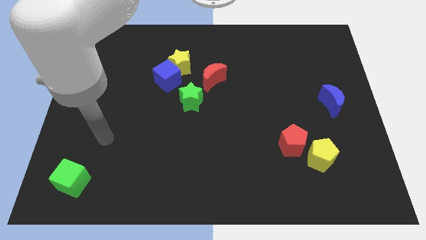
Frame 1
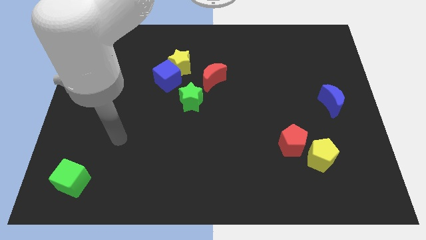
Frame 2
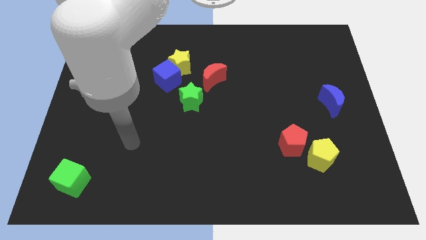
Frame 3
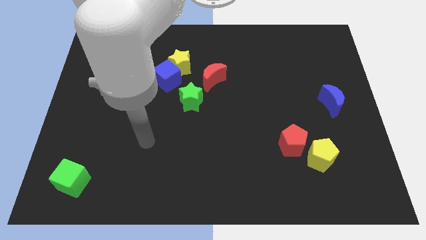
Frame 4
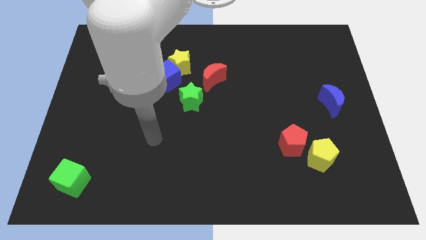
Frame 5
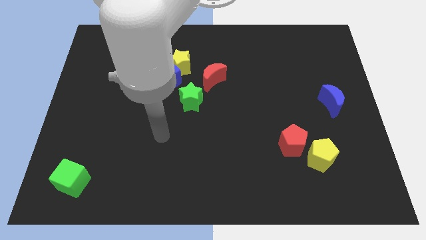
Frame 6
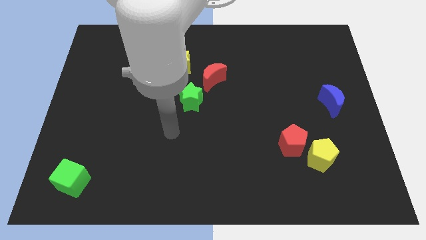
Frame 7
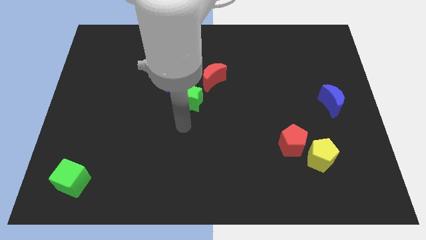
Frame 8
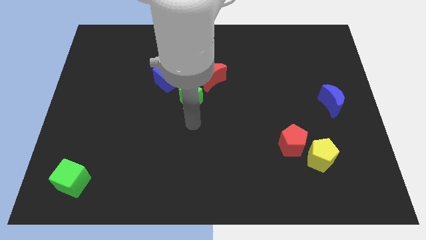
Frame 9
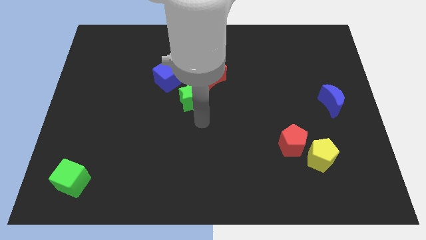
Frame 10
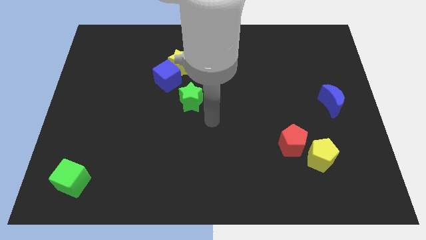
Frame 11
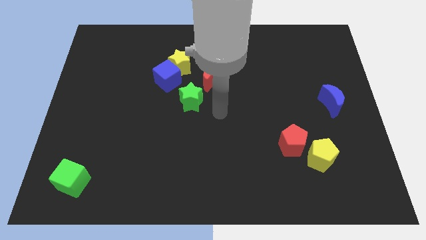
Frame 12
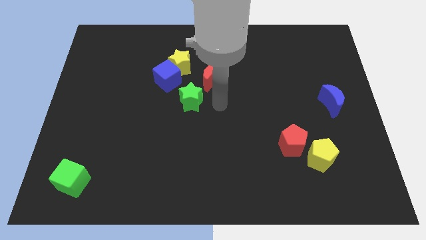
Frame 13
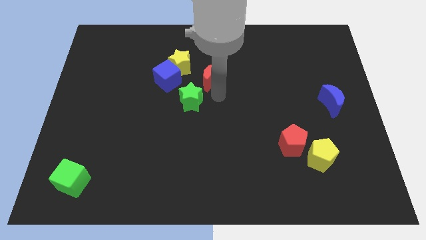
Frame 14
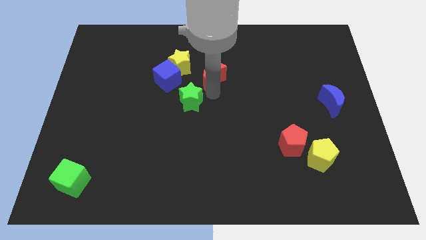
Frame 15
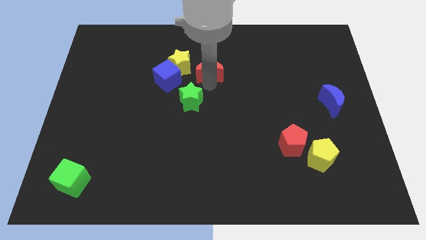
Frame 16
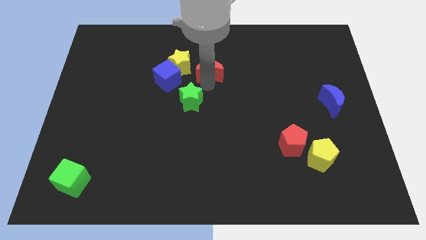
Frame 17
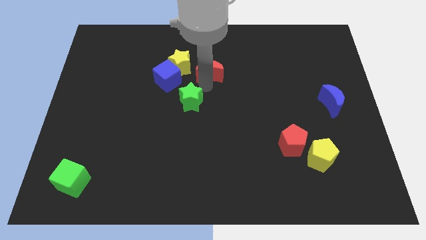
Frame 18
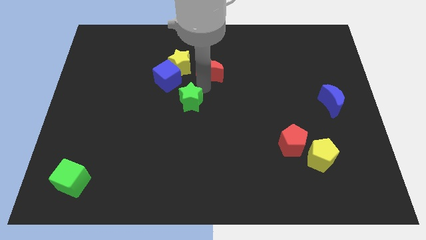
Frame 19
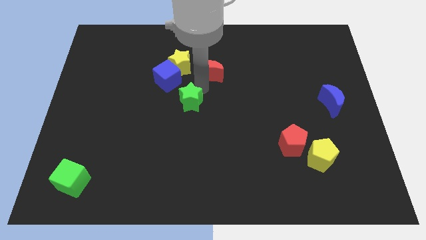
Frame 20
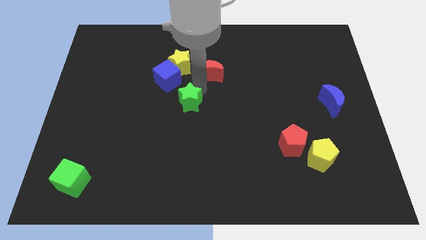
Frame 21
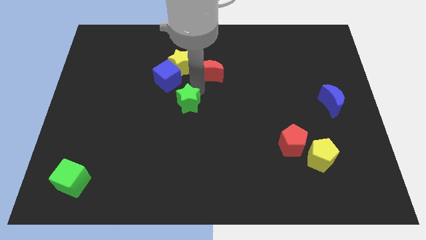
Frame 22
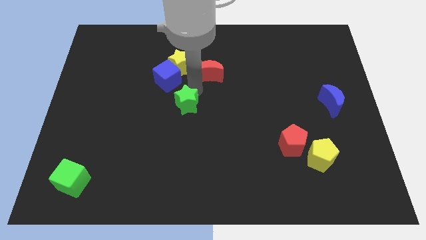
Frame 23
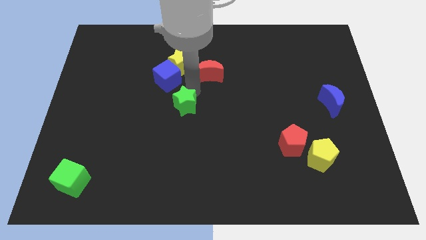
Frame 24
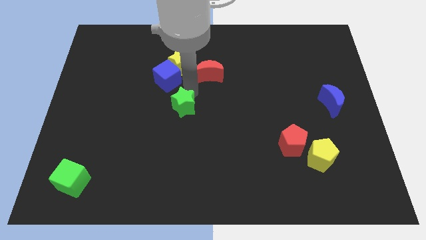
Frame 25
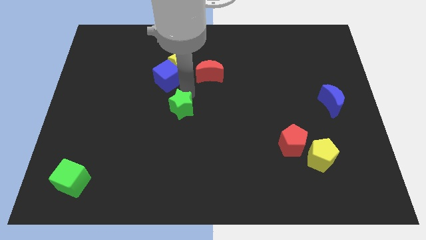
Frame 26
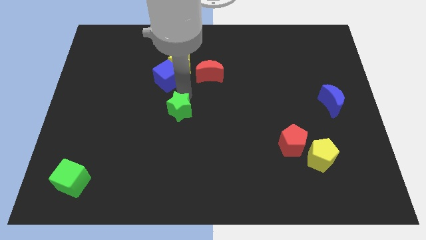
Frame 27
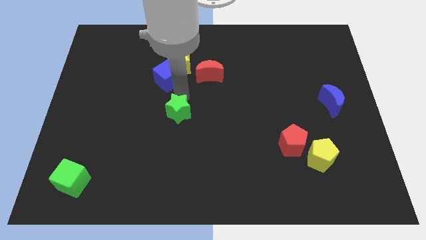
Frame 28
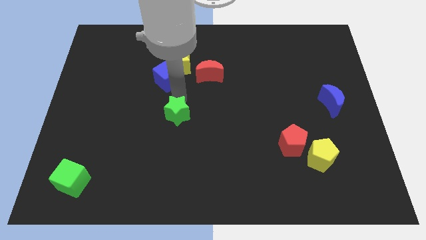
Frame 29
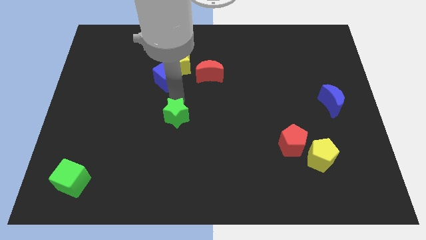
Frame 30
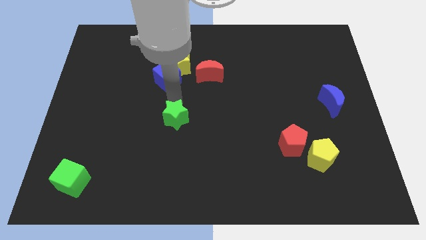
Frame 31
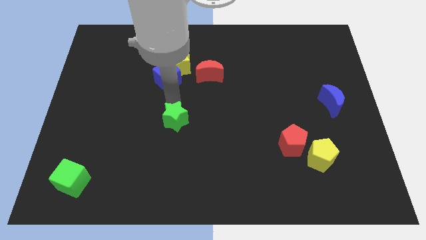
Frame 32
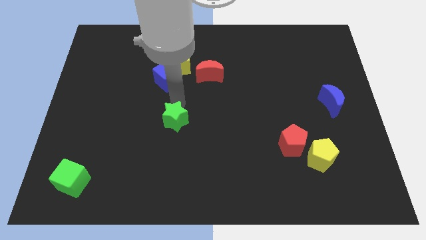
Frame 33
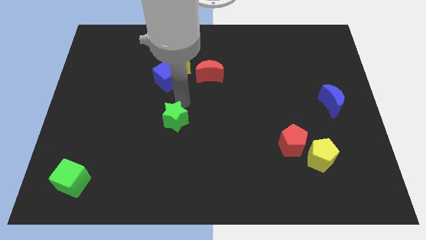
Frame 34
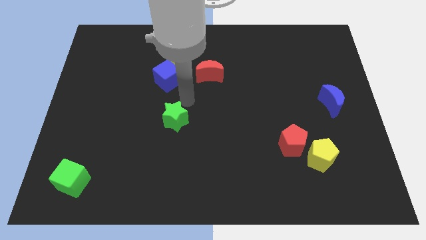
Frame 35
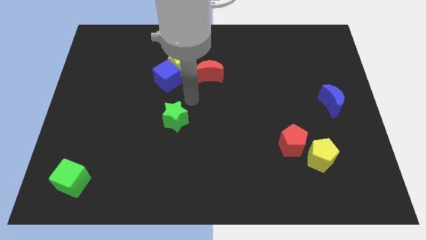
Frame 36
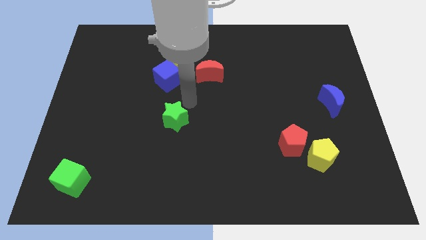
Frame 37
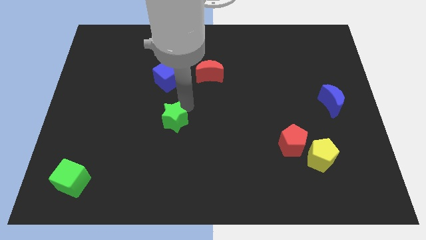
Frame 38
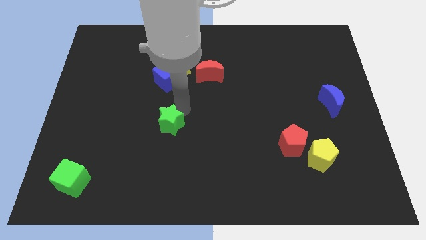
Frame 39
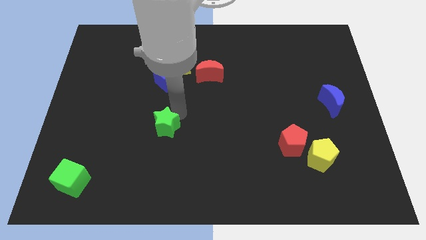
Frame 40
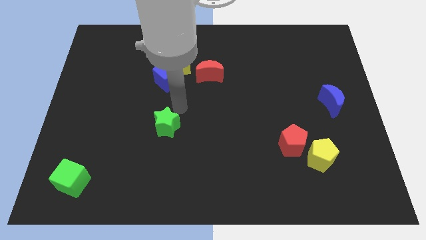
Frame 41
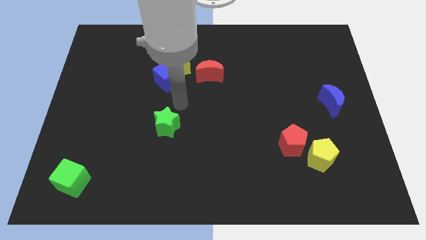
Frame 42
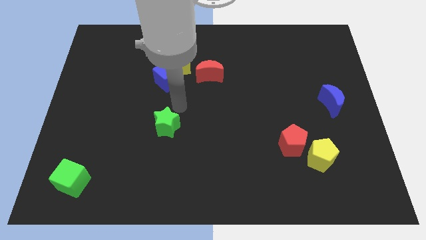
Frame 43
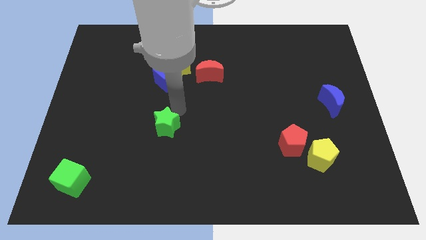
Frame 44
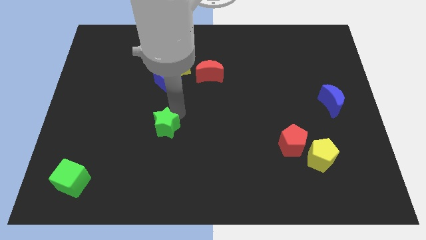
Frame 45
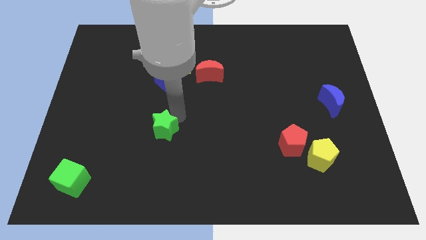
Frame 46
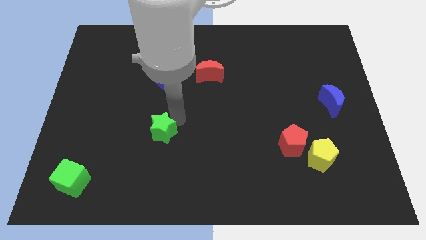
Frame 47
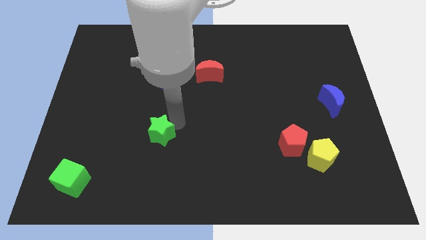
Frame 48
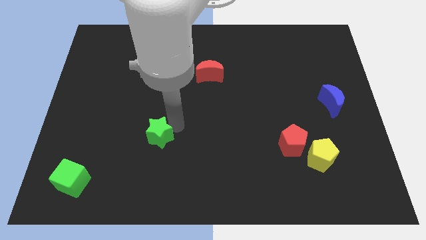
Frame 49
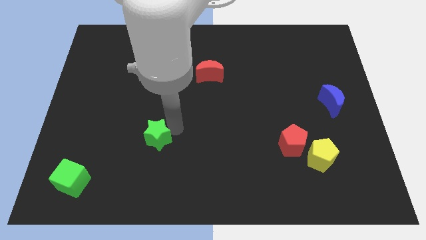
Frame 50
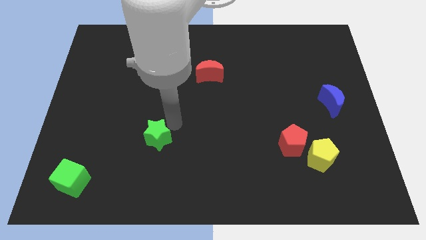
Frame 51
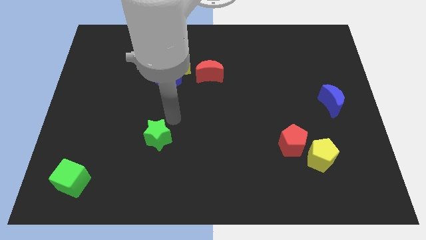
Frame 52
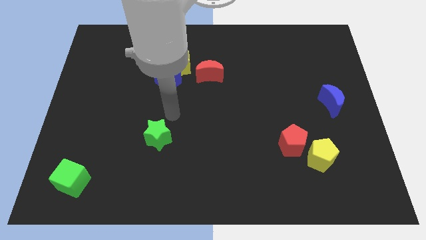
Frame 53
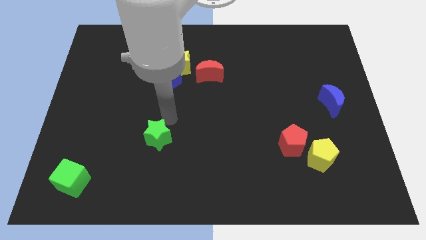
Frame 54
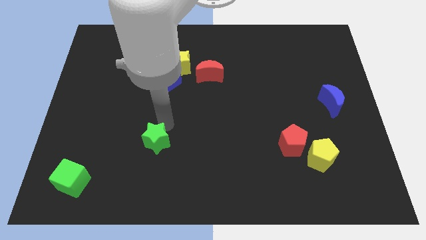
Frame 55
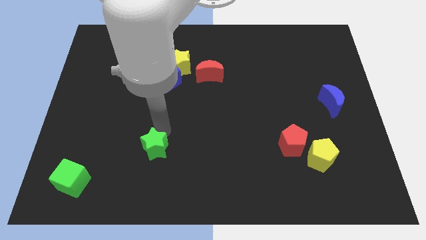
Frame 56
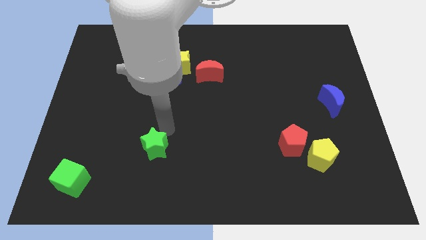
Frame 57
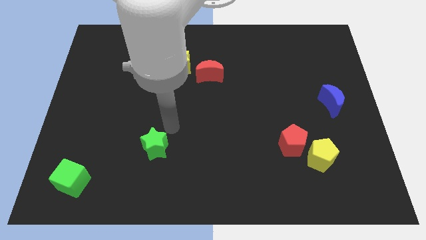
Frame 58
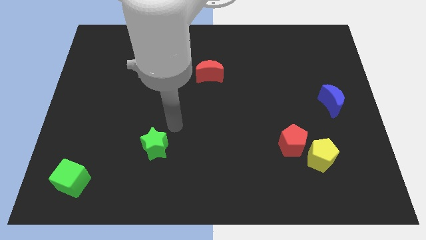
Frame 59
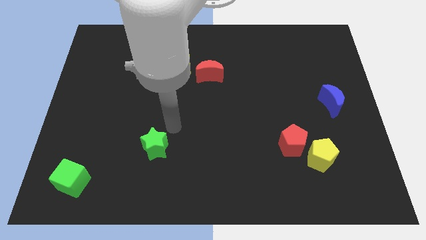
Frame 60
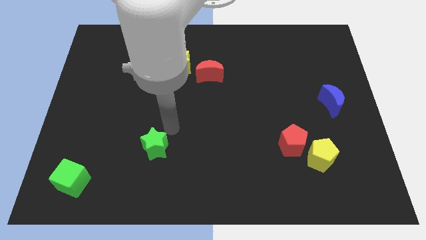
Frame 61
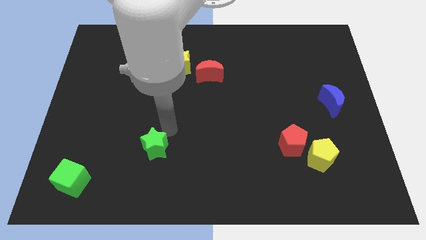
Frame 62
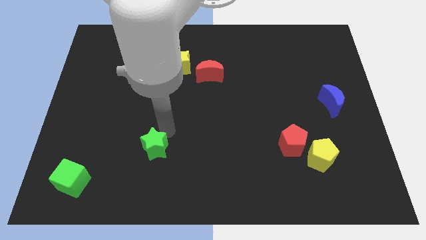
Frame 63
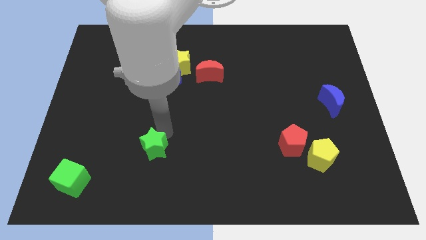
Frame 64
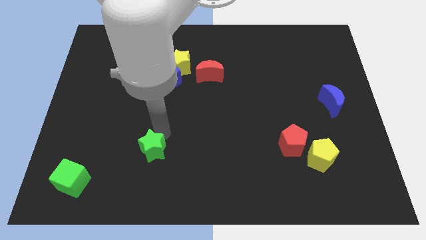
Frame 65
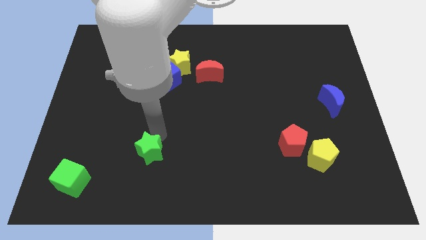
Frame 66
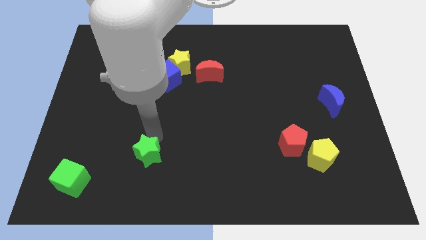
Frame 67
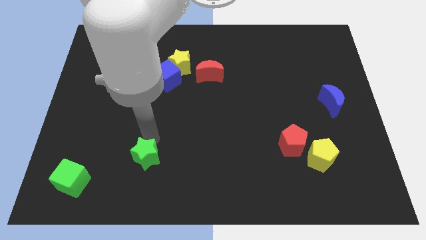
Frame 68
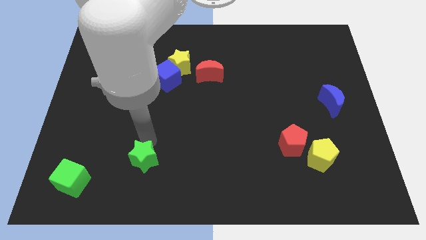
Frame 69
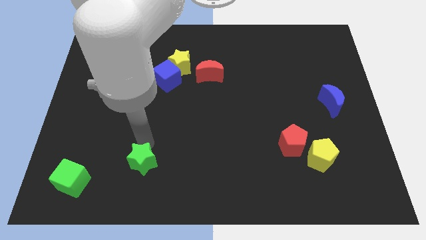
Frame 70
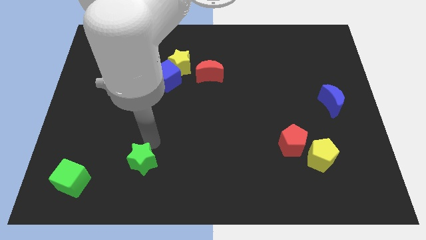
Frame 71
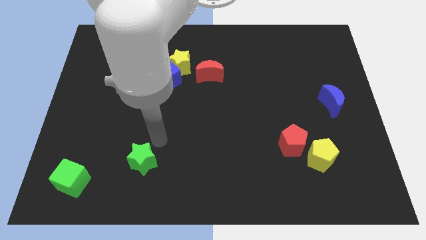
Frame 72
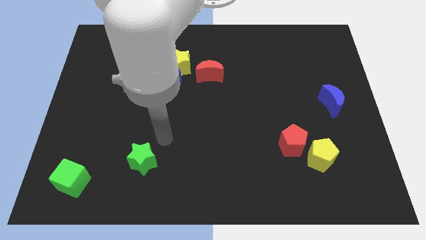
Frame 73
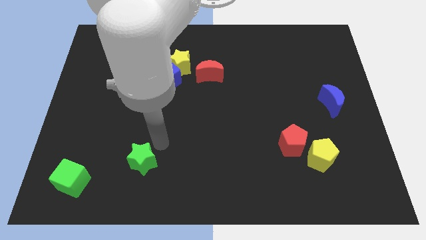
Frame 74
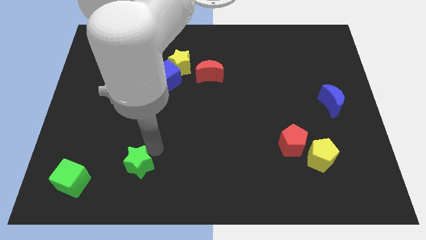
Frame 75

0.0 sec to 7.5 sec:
put the green star to the right side of the green cube
